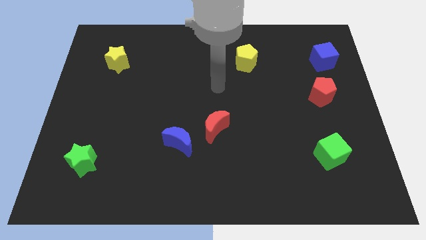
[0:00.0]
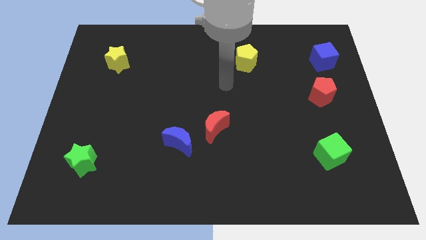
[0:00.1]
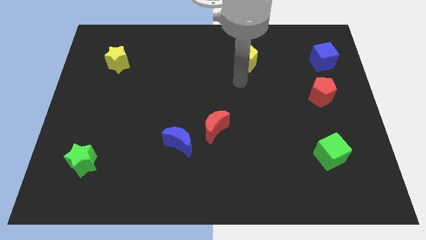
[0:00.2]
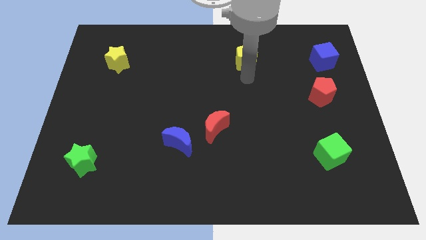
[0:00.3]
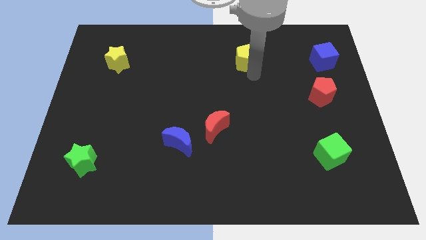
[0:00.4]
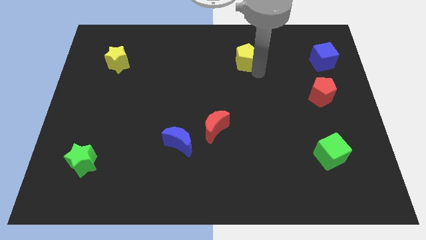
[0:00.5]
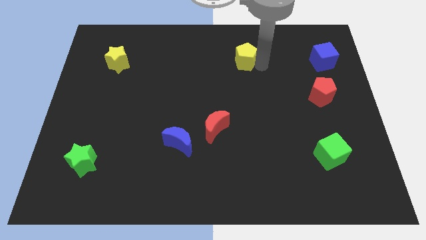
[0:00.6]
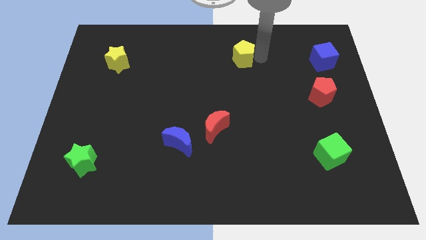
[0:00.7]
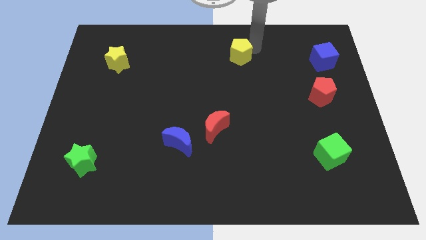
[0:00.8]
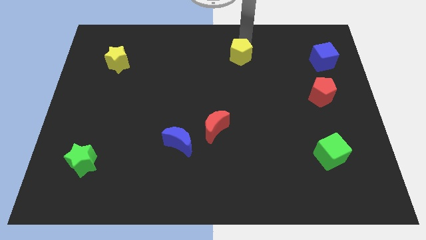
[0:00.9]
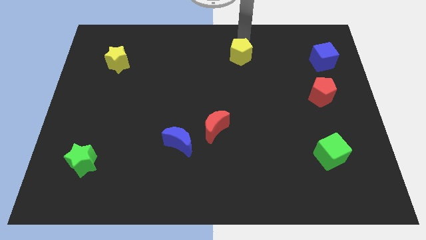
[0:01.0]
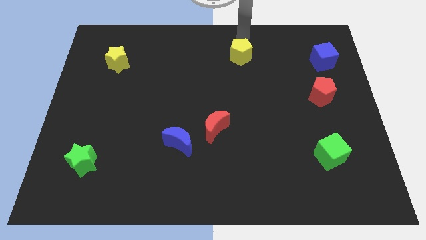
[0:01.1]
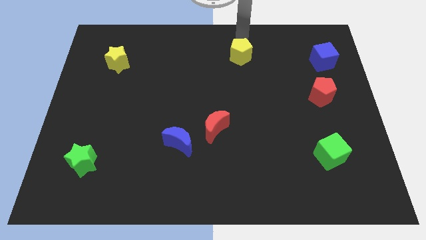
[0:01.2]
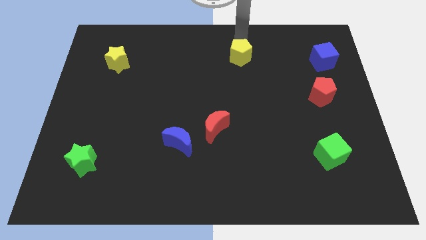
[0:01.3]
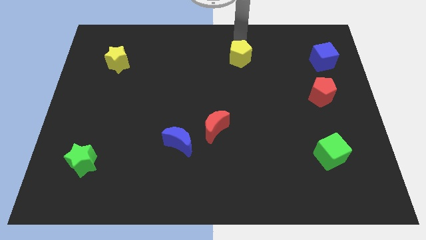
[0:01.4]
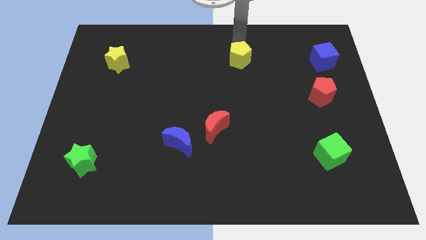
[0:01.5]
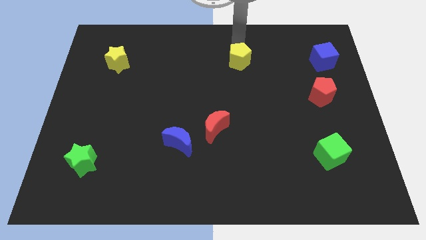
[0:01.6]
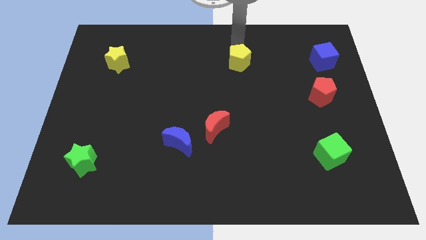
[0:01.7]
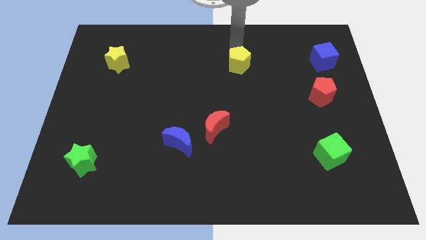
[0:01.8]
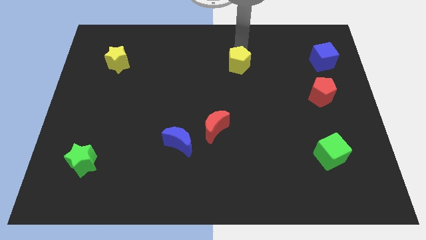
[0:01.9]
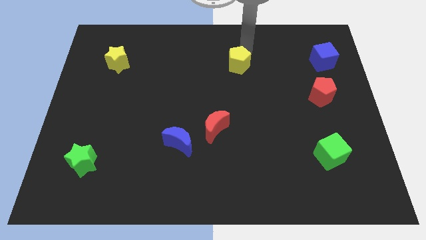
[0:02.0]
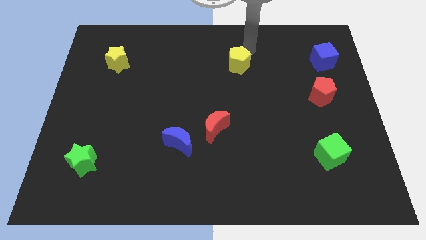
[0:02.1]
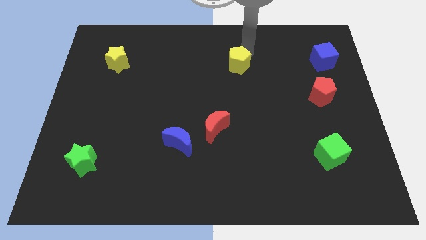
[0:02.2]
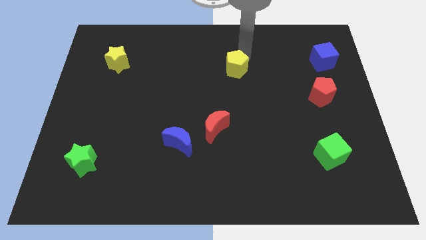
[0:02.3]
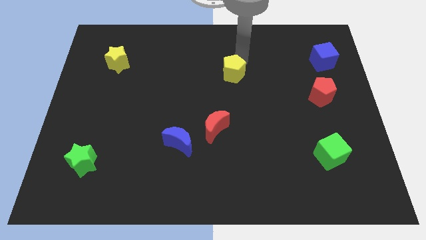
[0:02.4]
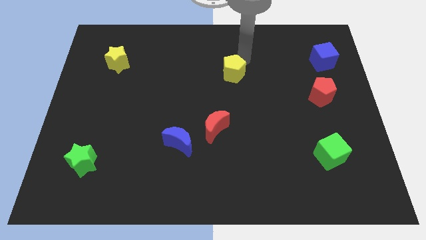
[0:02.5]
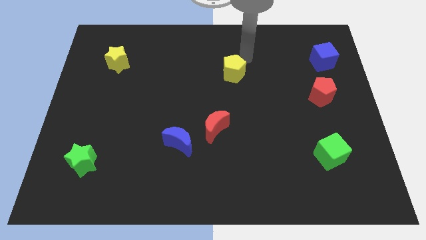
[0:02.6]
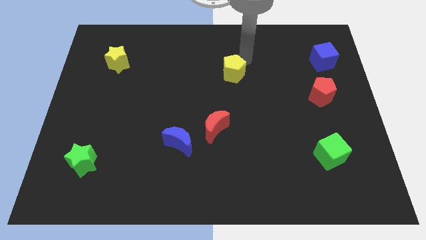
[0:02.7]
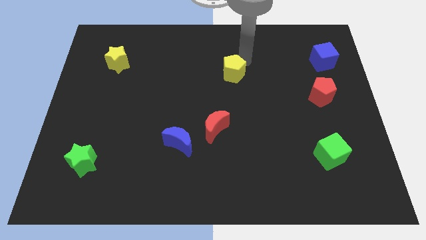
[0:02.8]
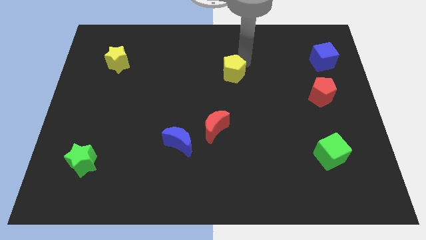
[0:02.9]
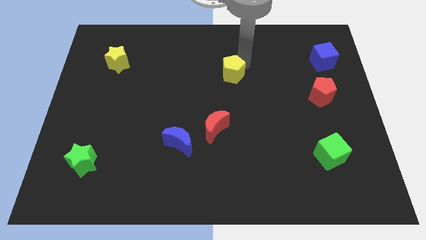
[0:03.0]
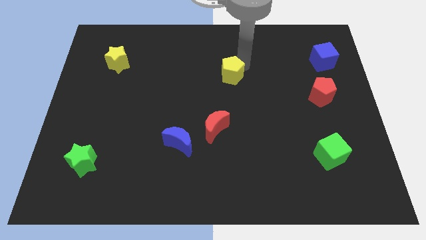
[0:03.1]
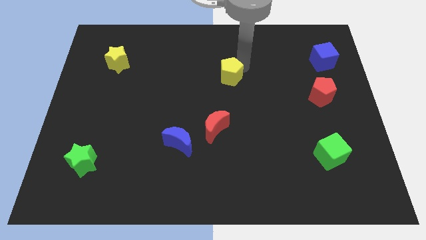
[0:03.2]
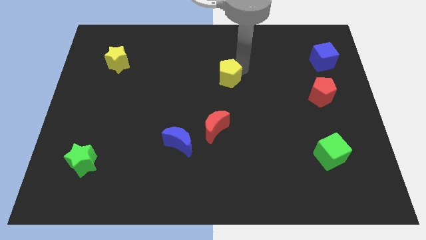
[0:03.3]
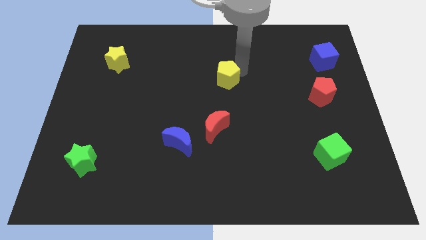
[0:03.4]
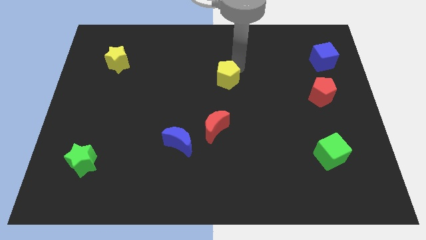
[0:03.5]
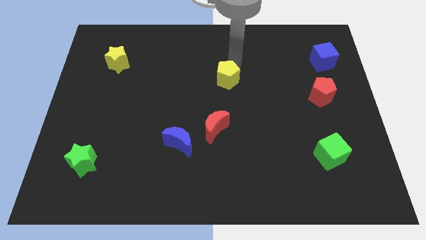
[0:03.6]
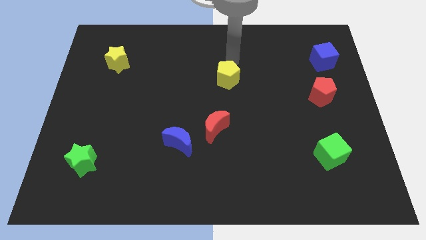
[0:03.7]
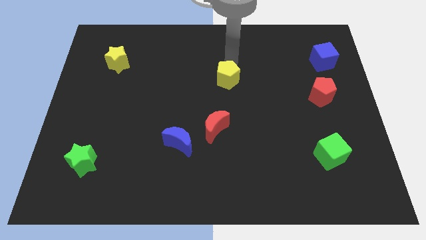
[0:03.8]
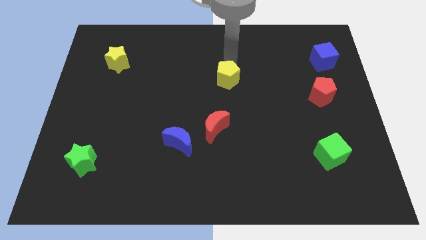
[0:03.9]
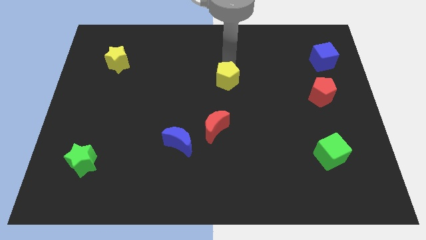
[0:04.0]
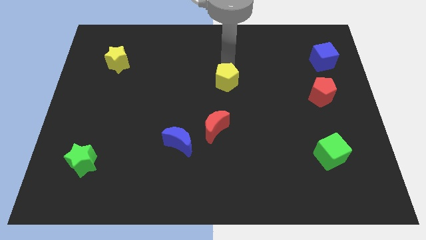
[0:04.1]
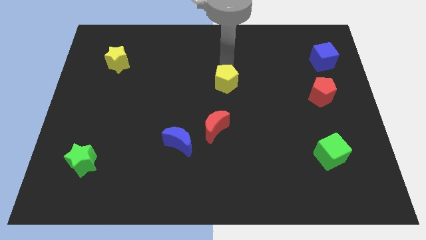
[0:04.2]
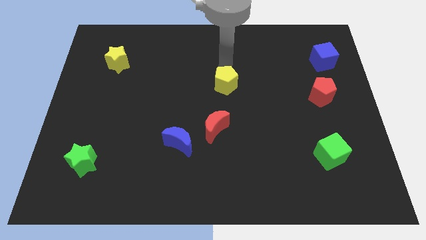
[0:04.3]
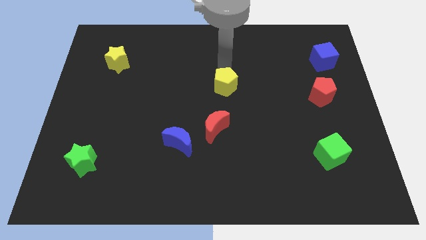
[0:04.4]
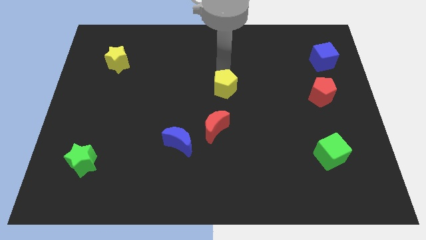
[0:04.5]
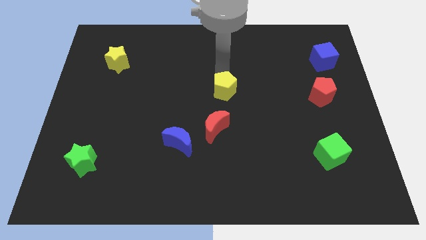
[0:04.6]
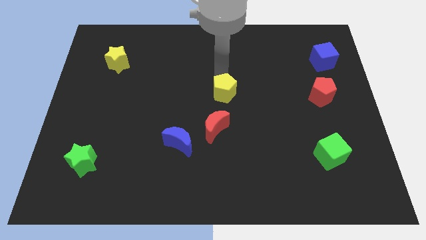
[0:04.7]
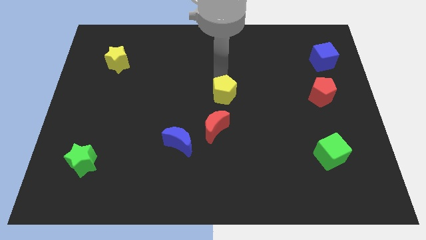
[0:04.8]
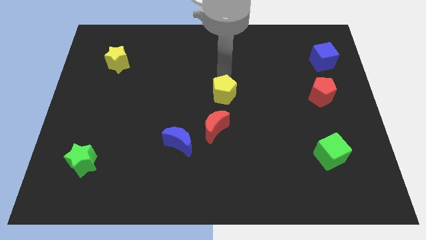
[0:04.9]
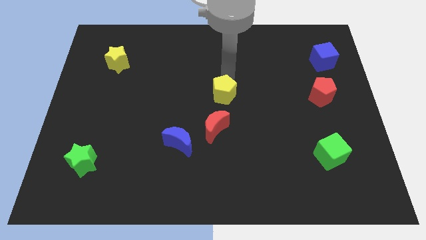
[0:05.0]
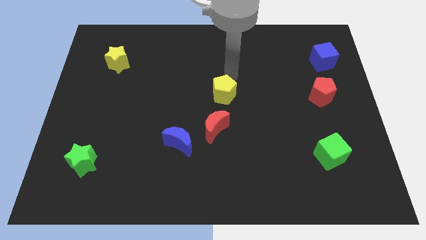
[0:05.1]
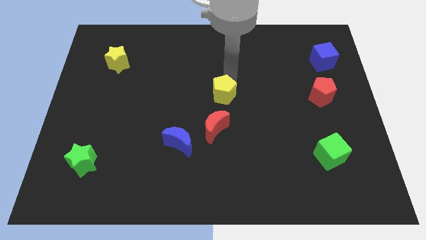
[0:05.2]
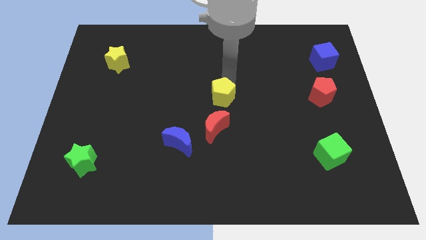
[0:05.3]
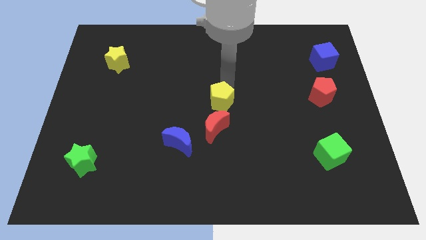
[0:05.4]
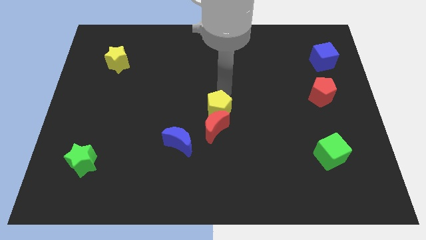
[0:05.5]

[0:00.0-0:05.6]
slide the yellow pentagon towards the red moon
